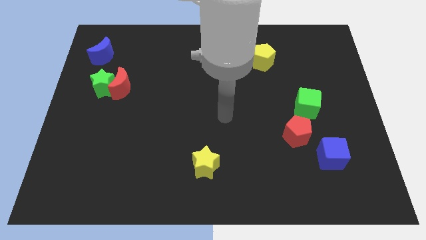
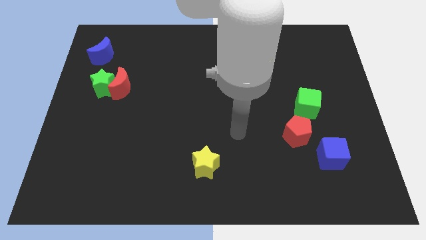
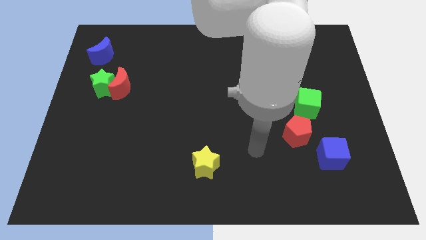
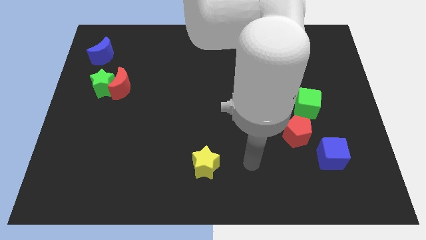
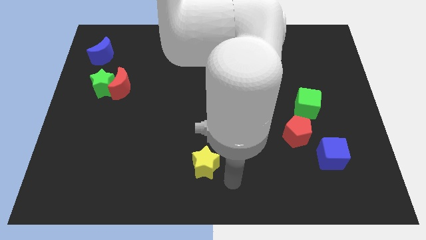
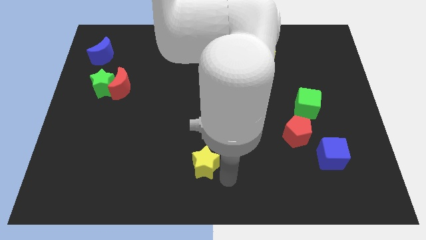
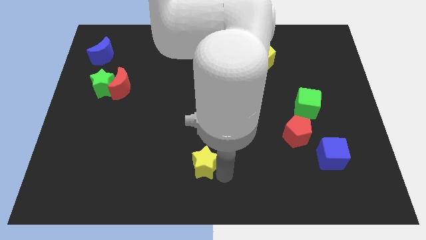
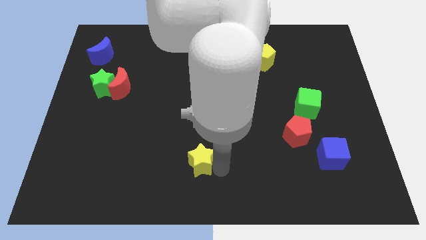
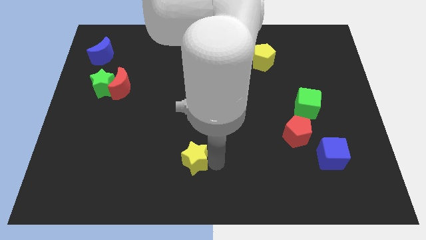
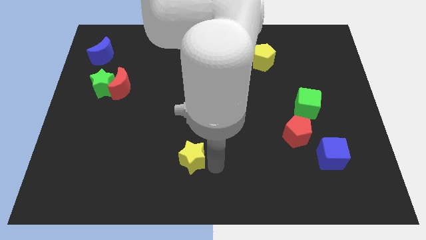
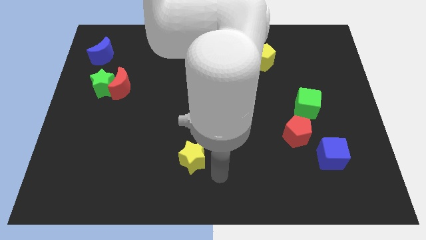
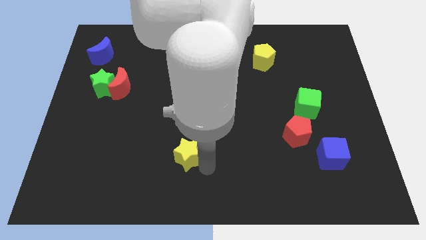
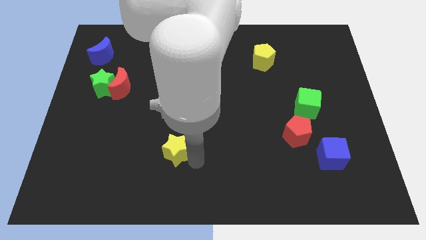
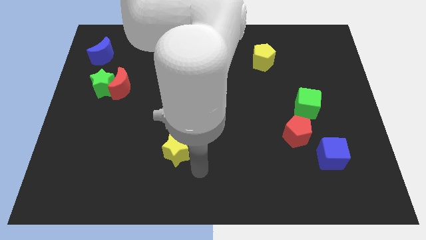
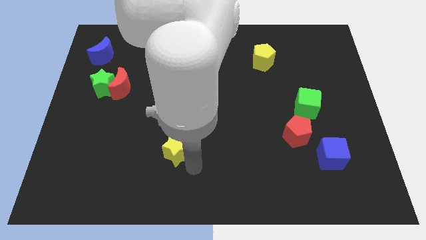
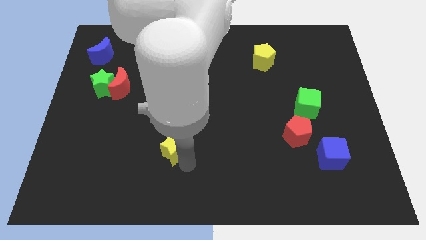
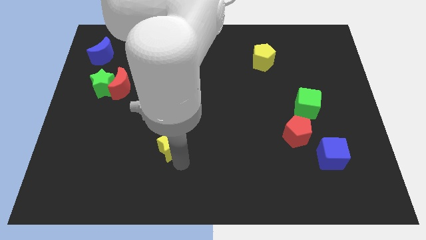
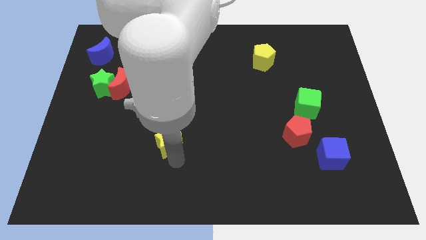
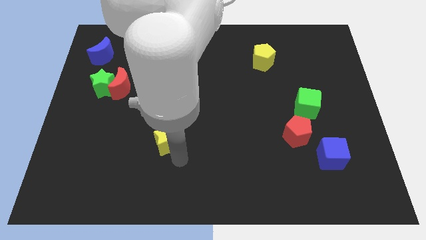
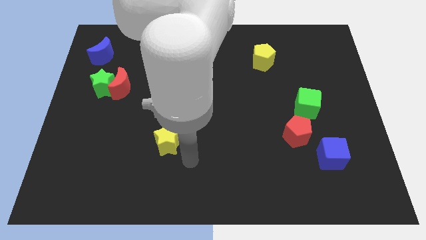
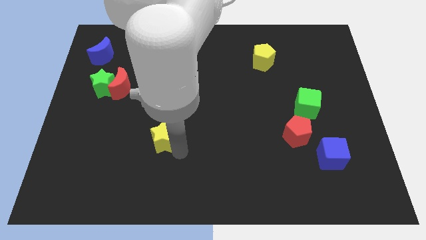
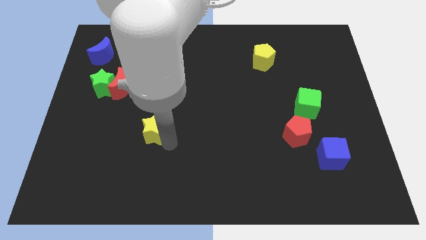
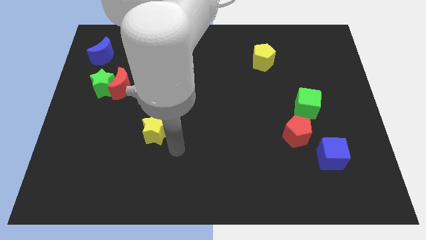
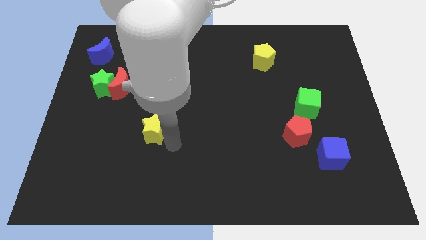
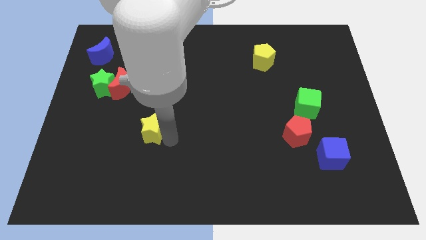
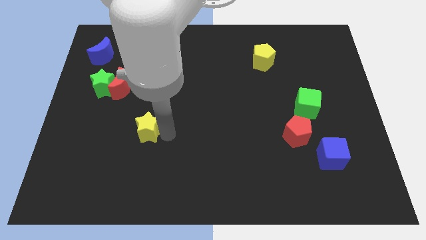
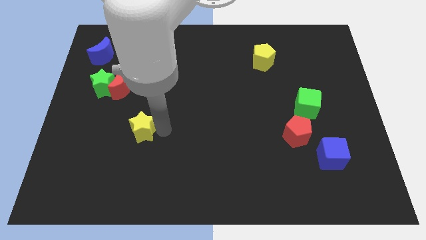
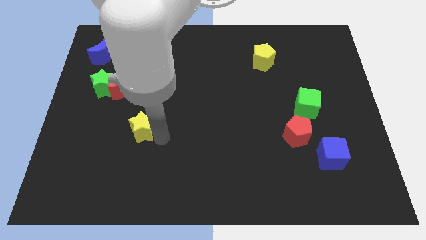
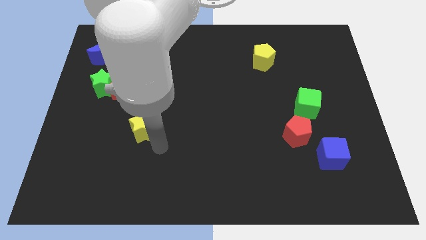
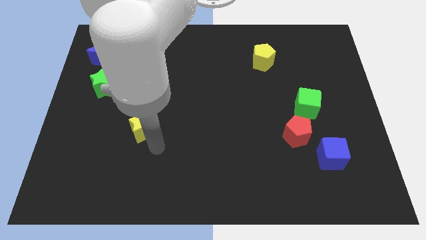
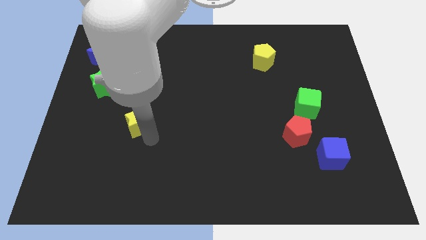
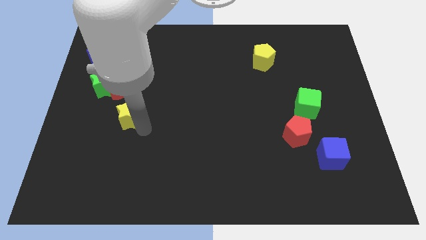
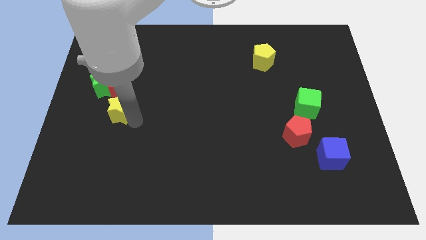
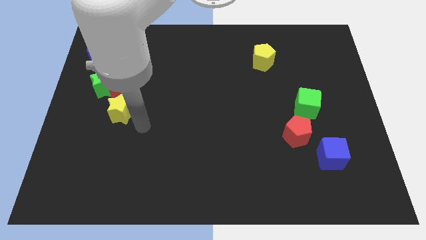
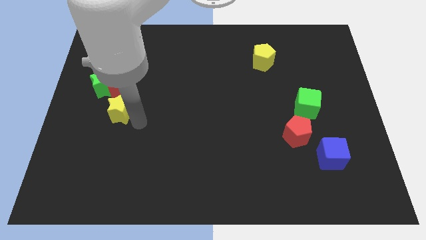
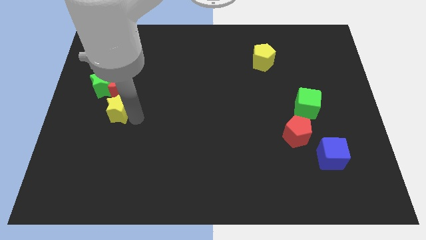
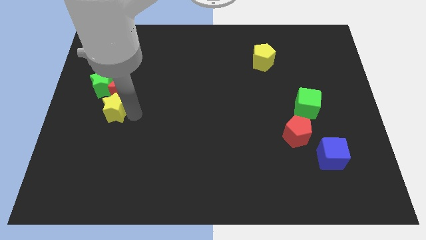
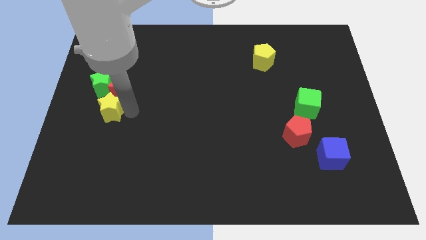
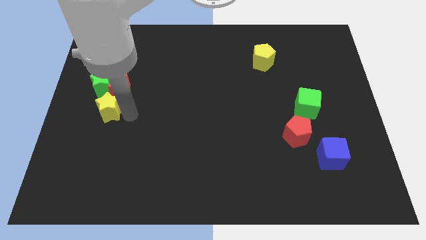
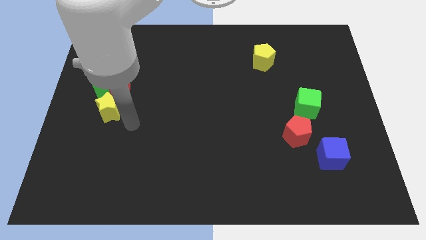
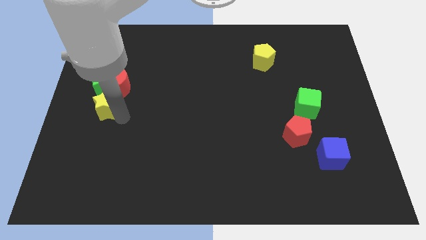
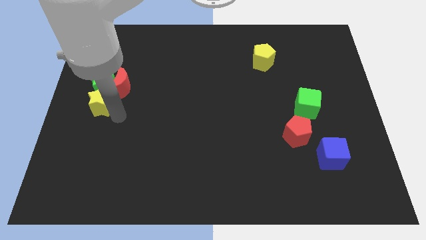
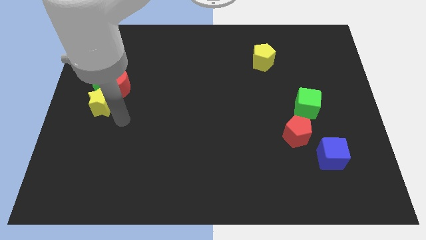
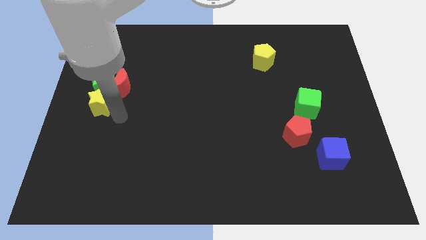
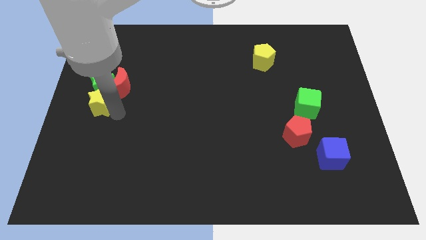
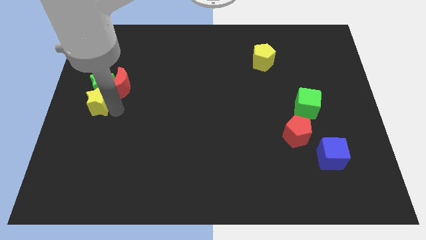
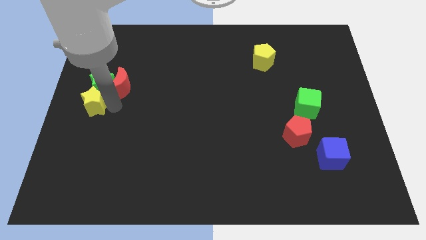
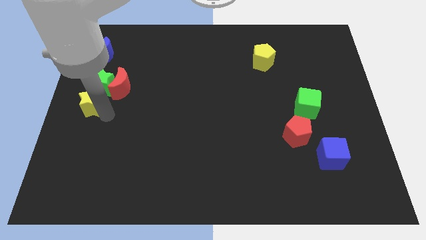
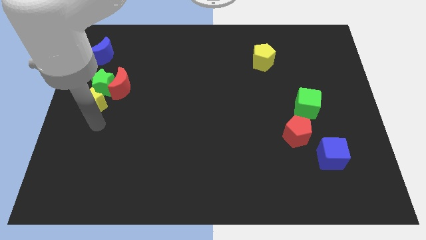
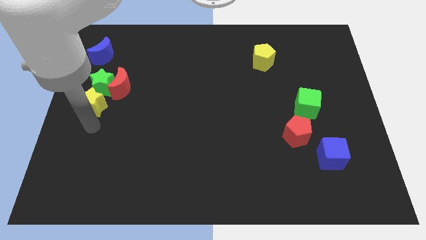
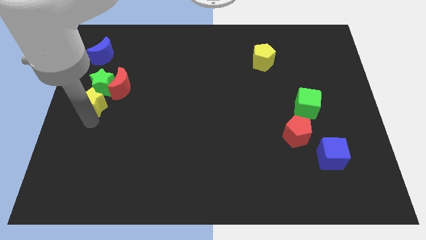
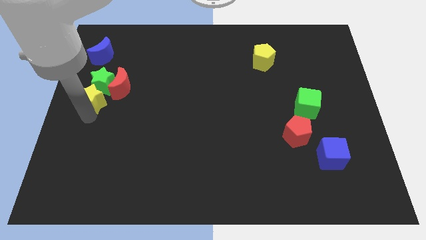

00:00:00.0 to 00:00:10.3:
put the yellow star below the blue moon

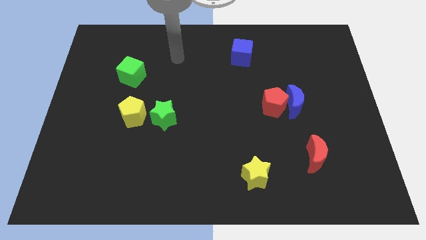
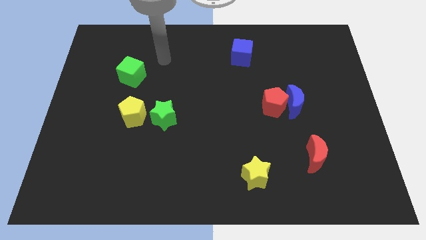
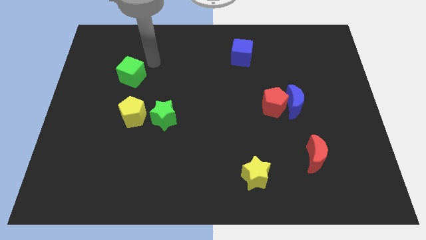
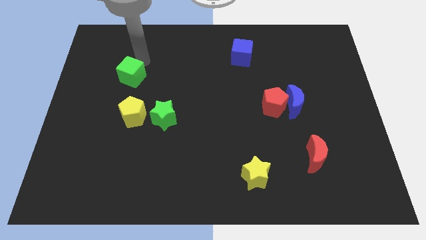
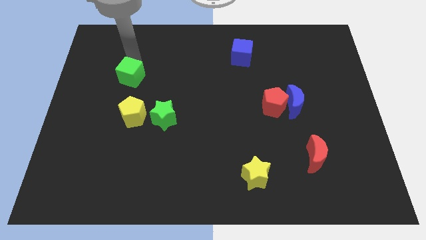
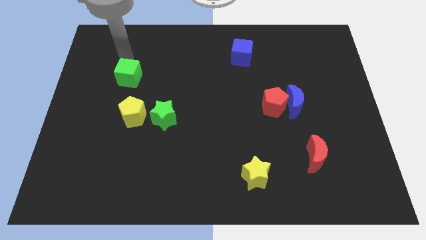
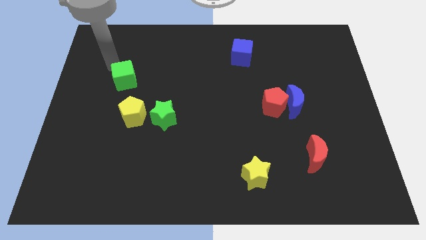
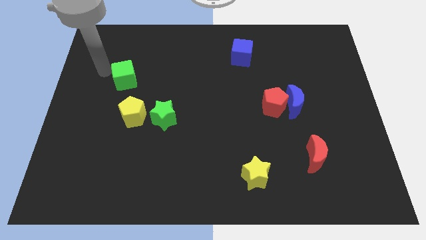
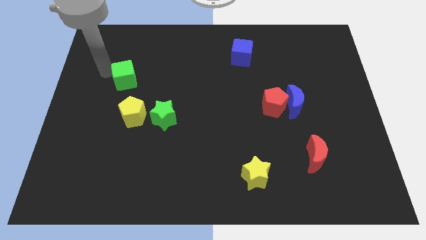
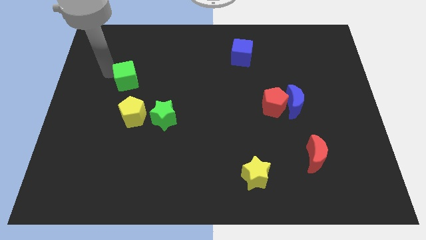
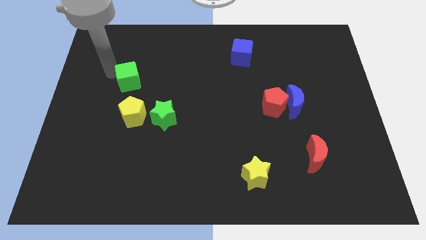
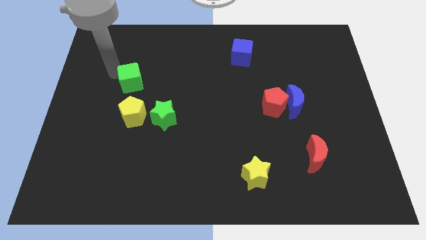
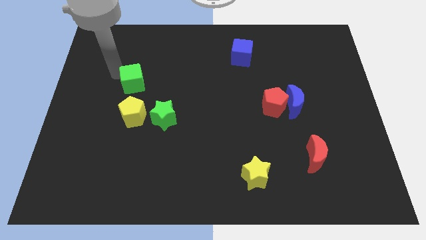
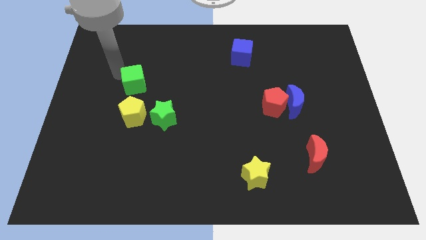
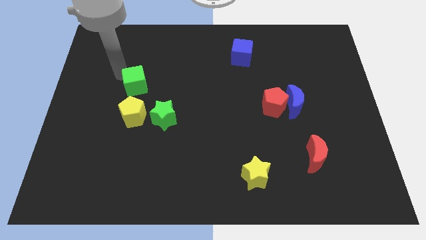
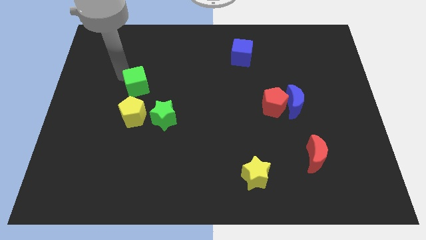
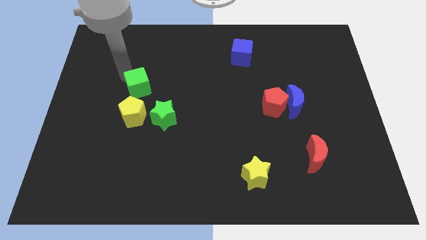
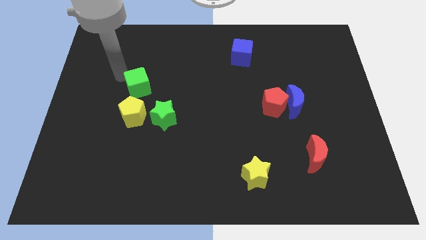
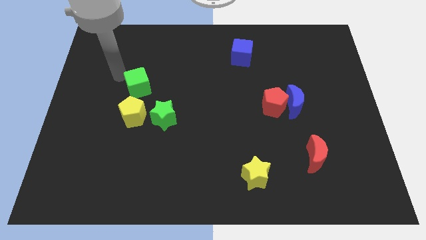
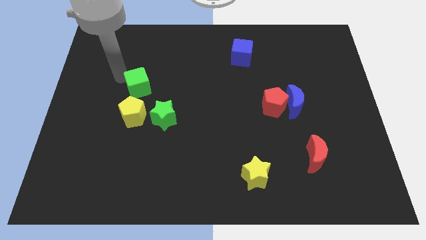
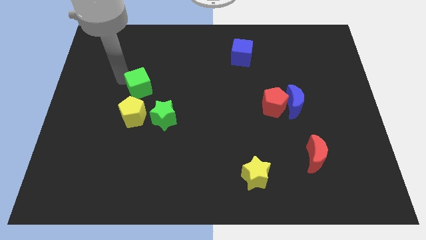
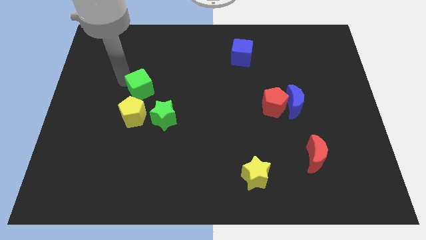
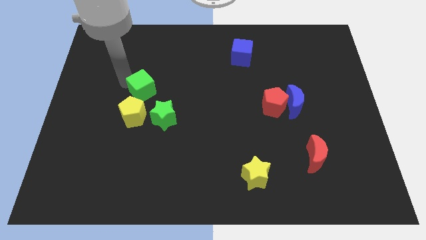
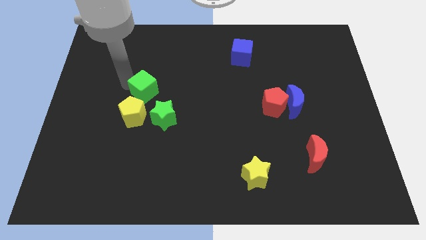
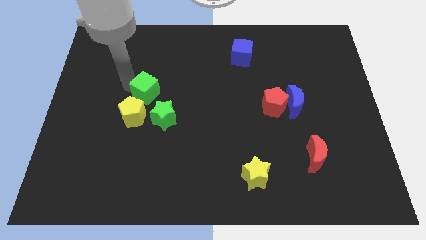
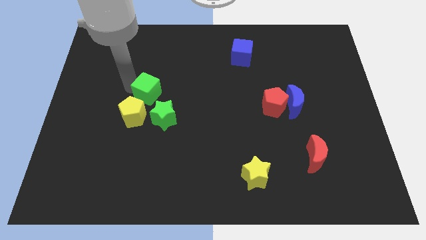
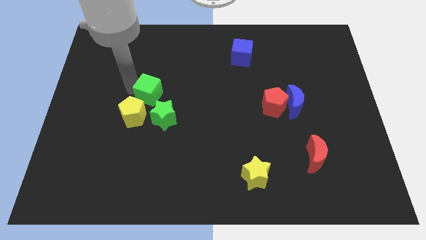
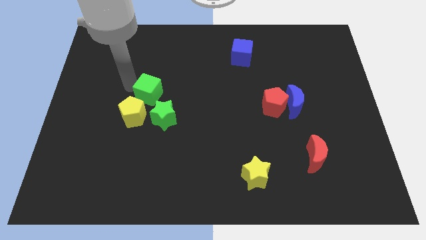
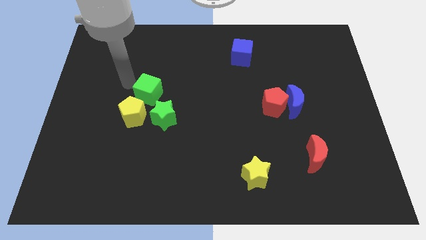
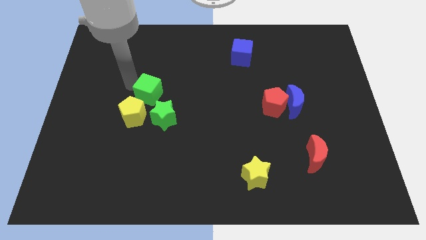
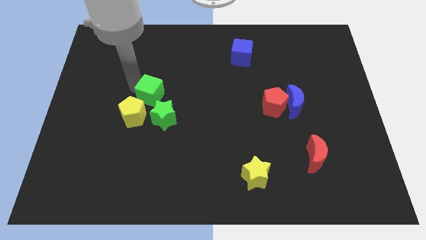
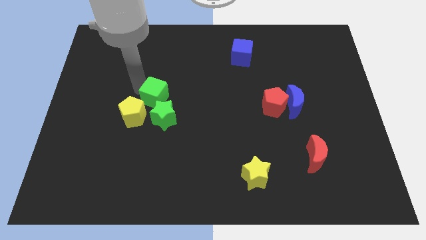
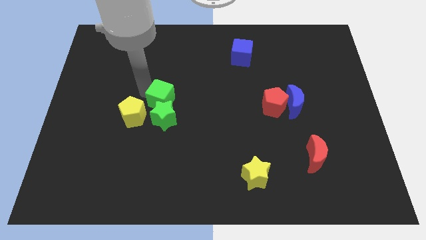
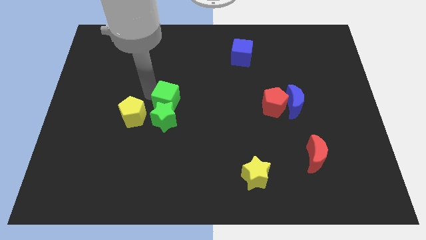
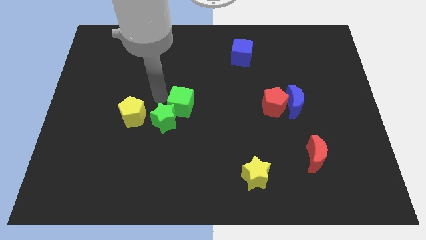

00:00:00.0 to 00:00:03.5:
slide the green cube just right of the green star
